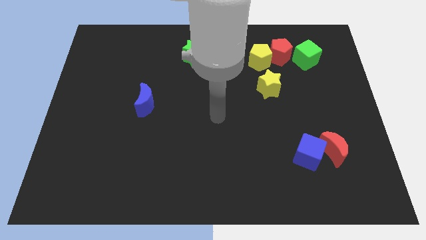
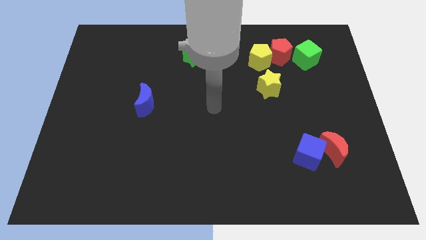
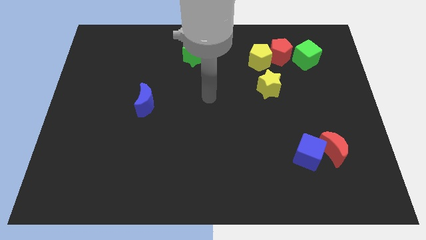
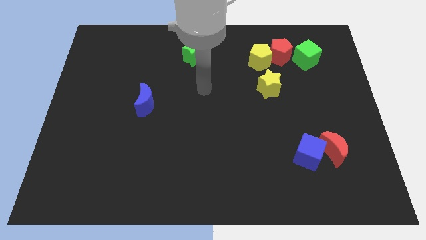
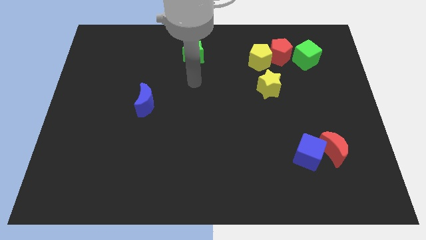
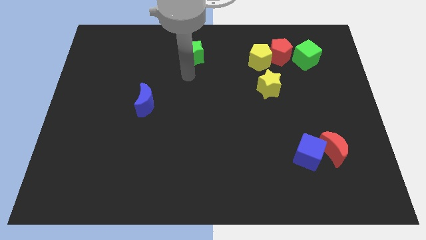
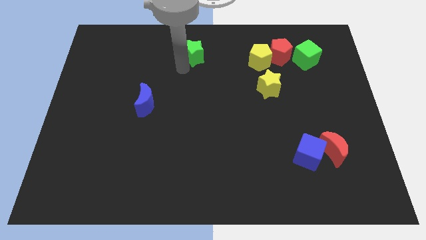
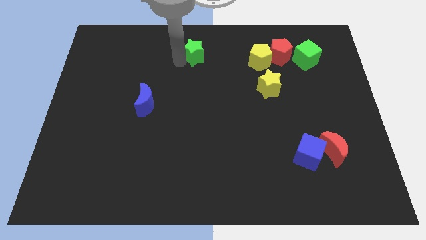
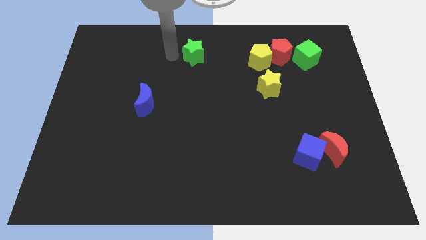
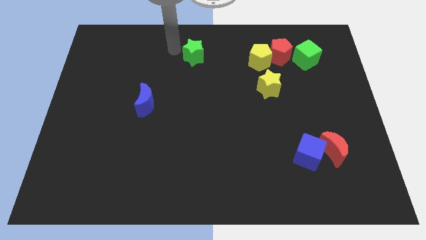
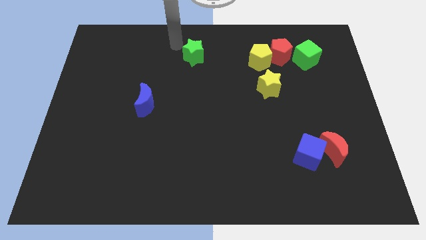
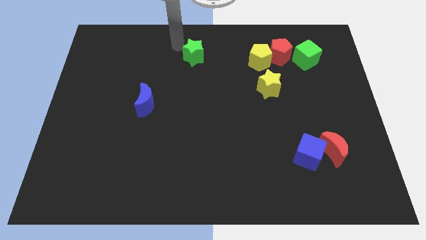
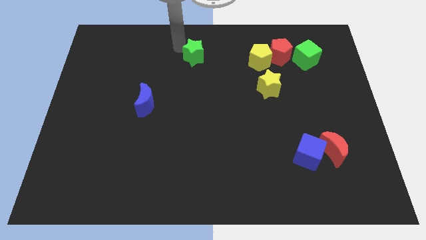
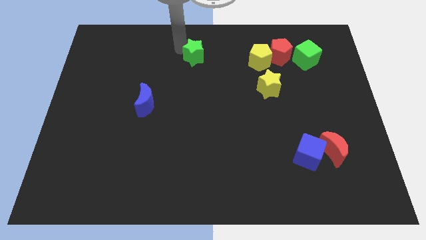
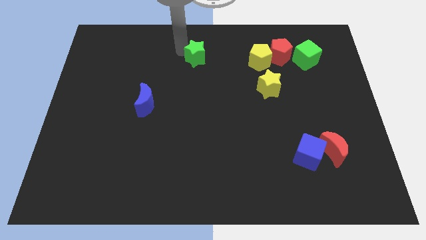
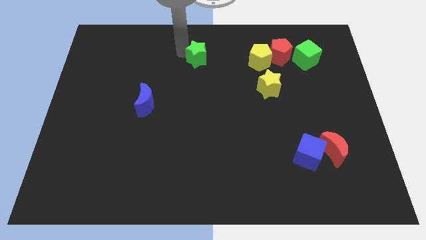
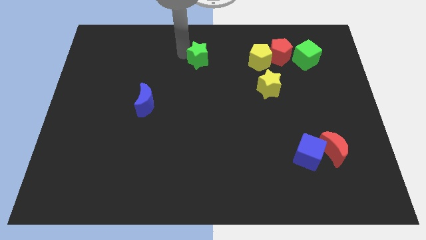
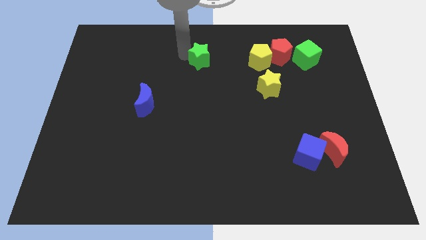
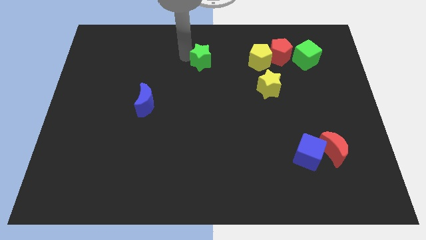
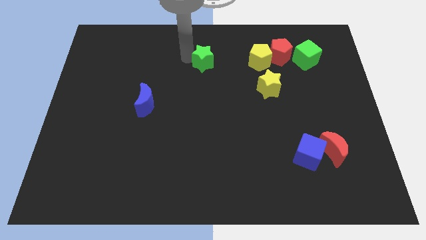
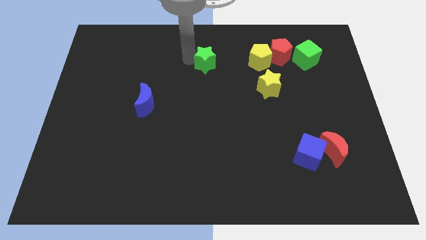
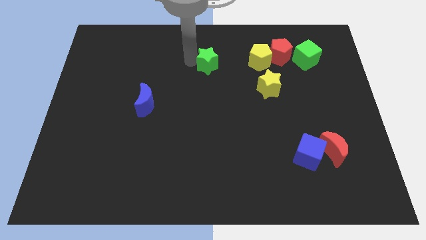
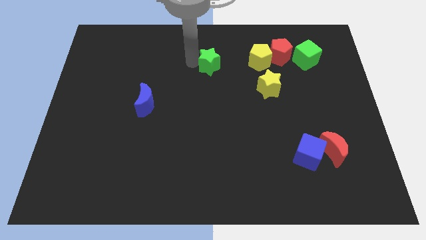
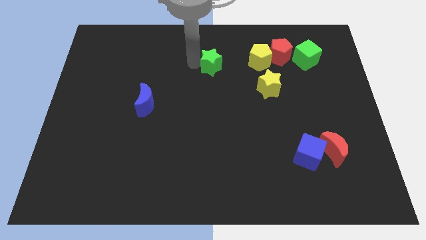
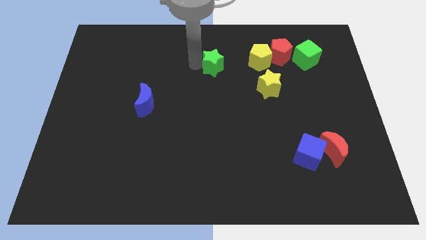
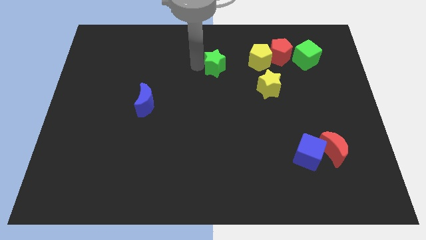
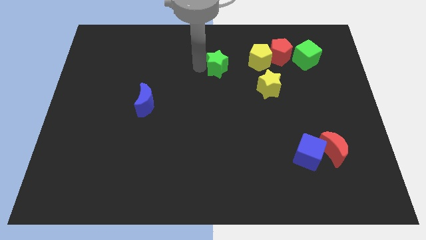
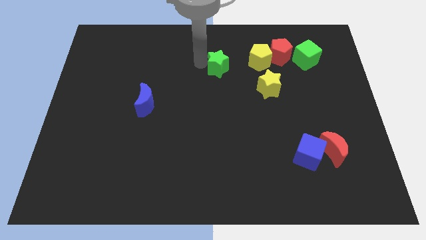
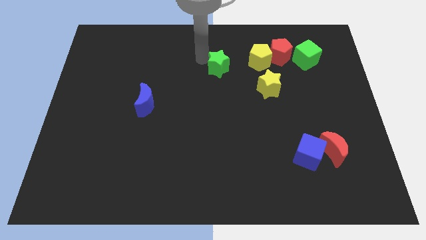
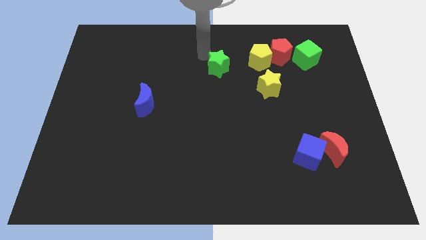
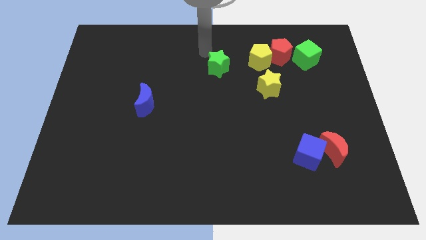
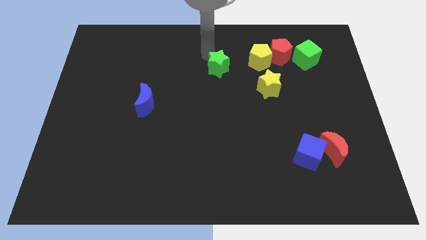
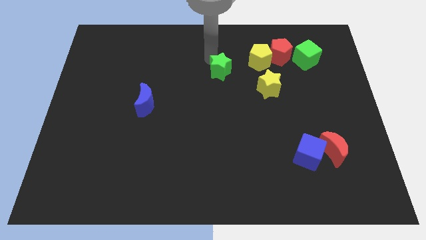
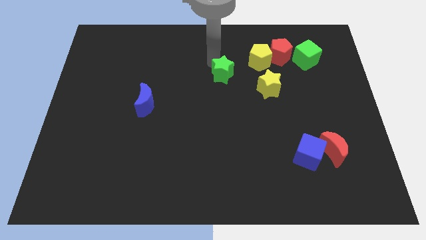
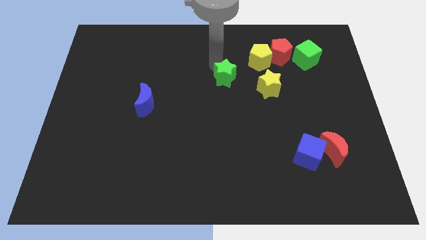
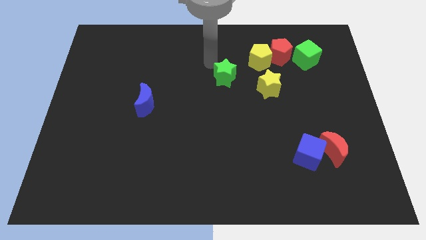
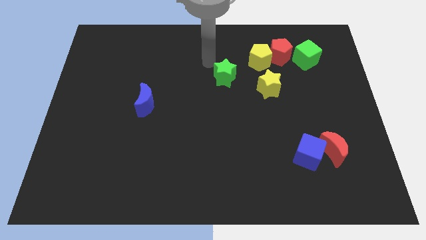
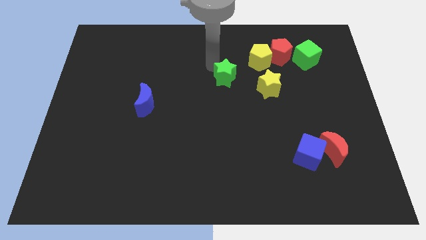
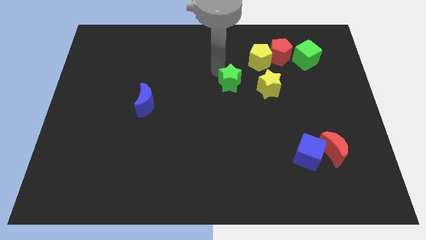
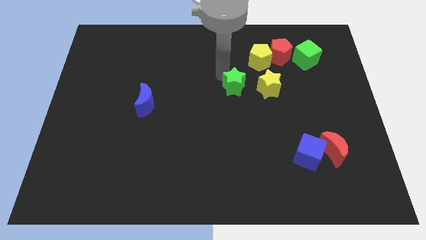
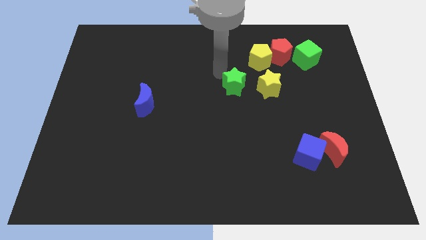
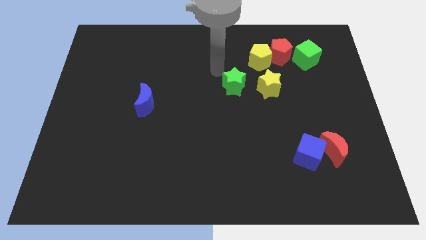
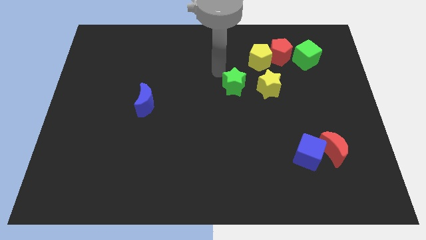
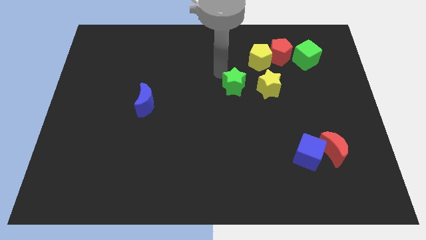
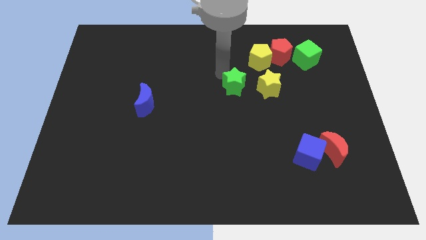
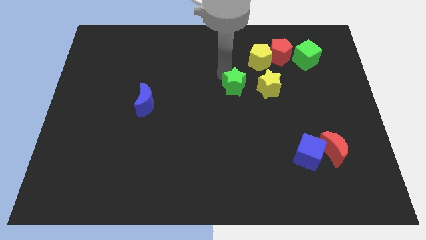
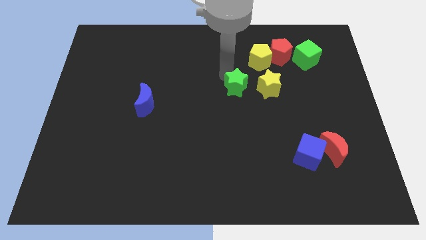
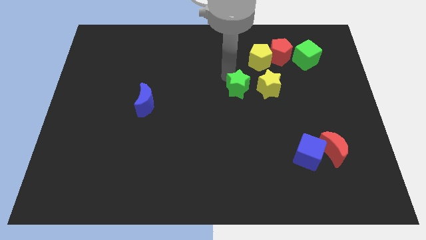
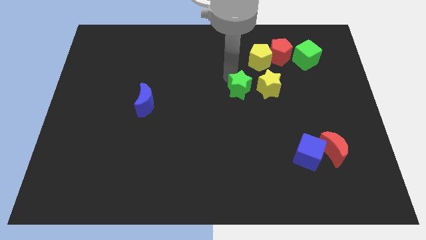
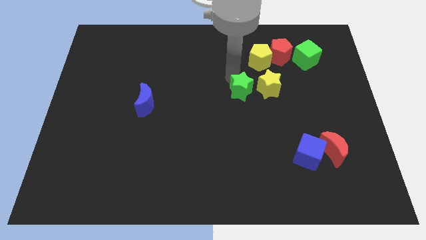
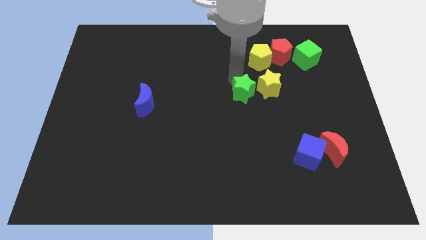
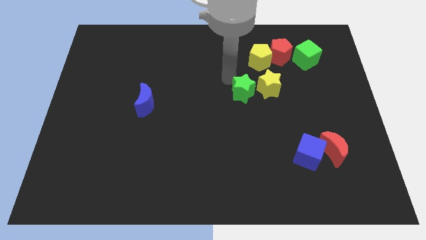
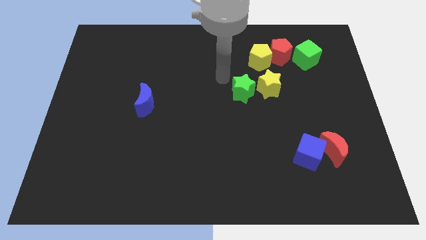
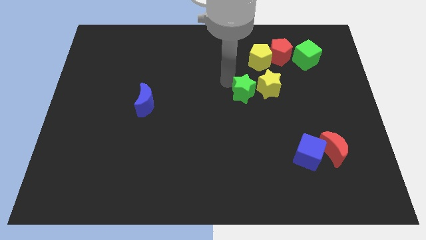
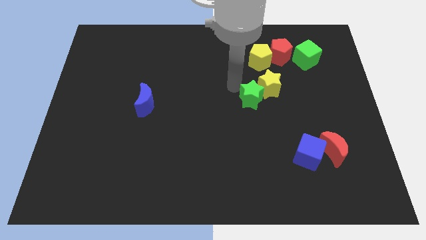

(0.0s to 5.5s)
push the green star down and right

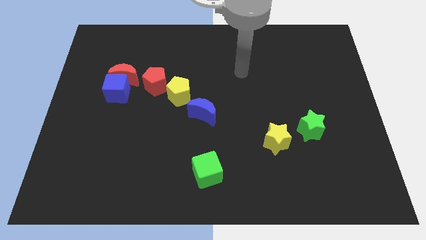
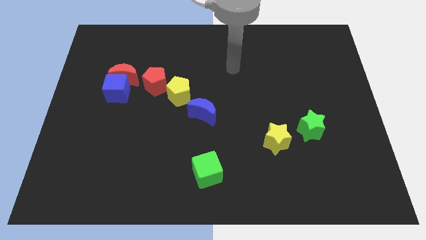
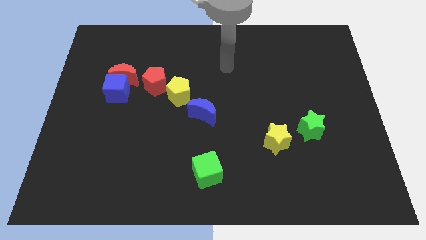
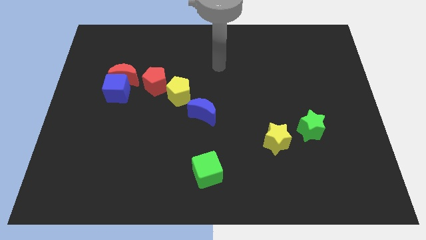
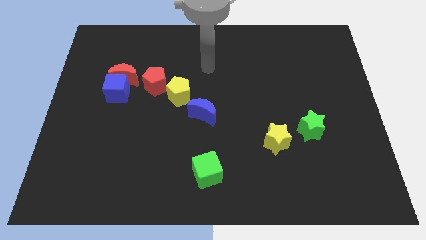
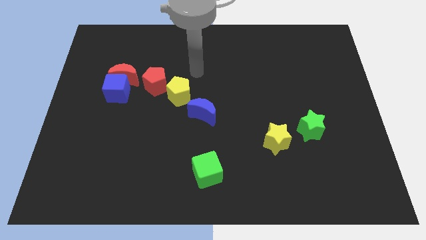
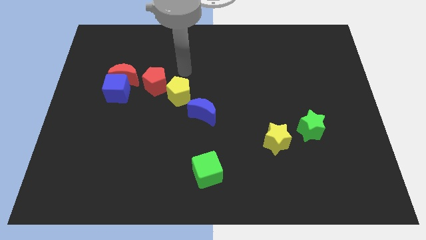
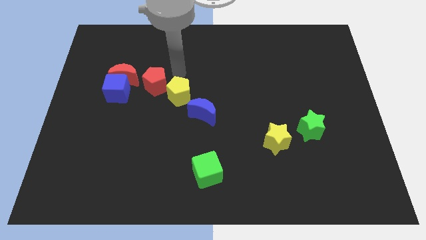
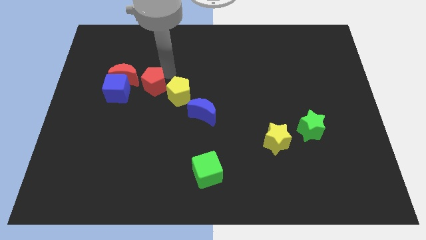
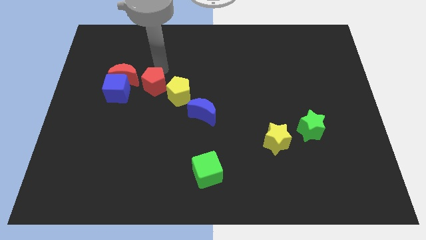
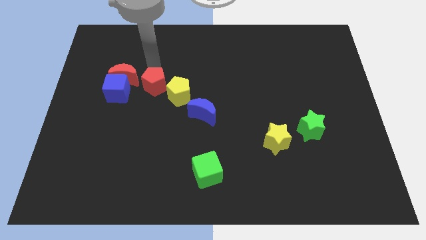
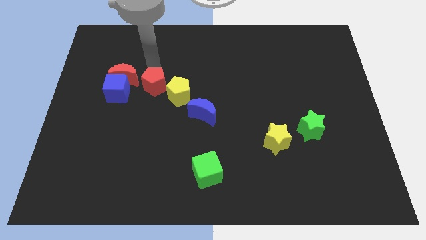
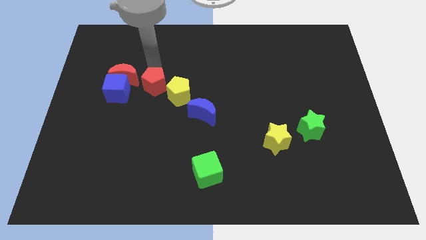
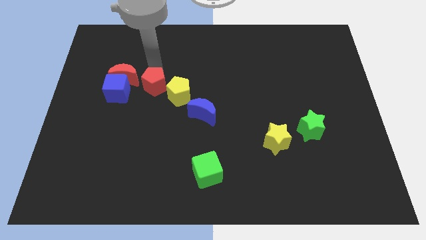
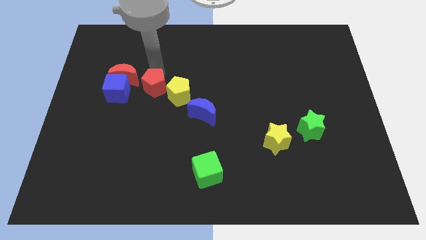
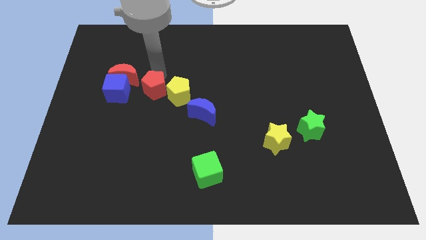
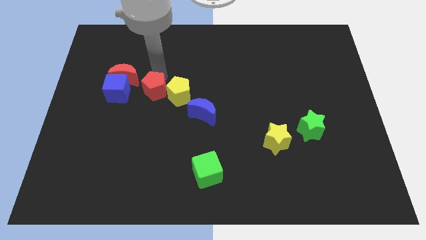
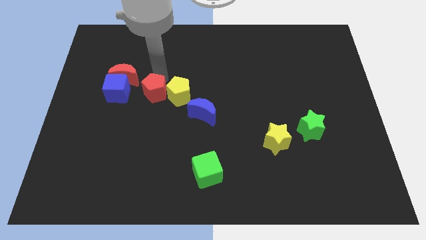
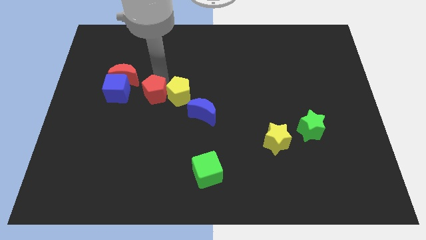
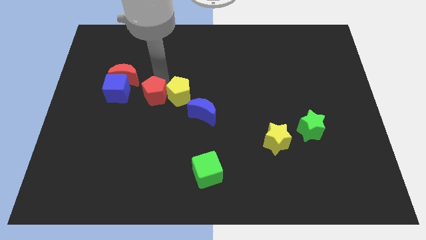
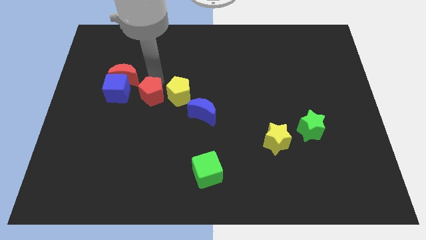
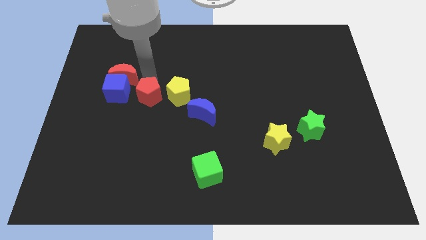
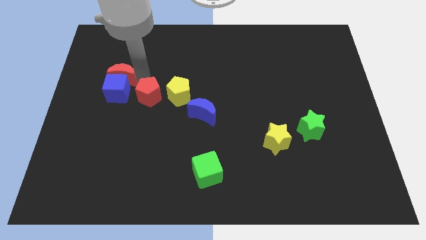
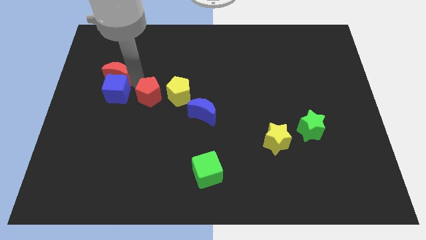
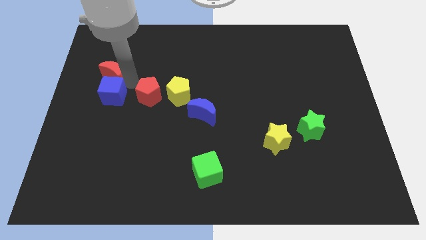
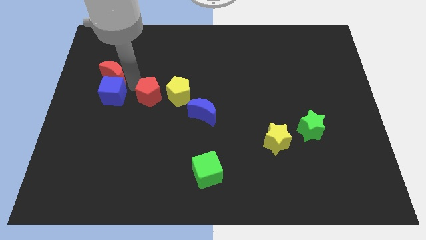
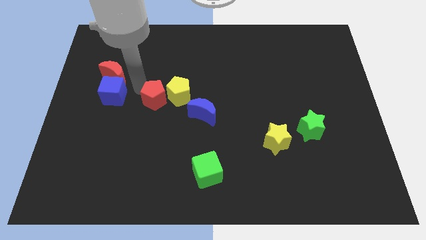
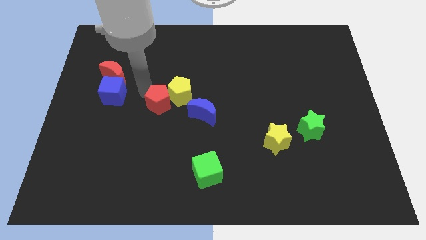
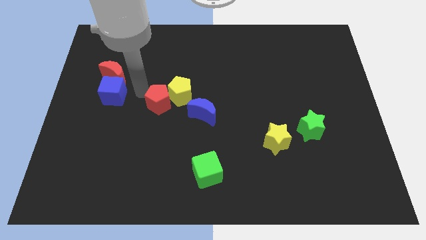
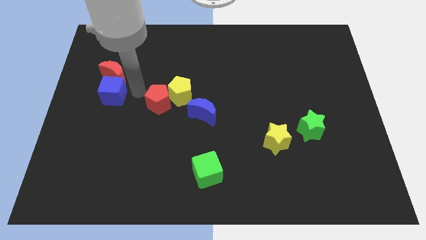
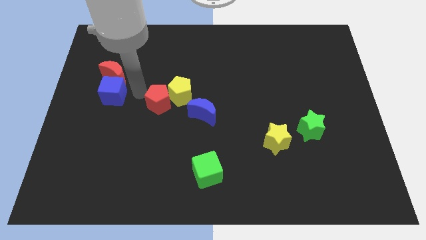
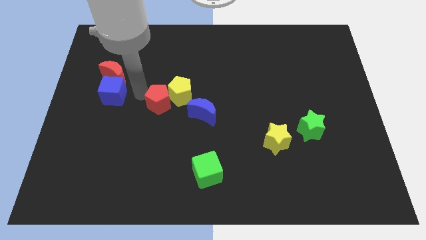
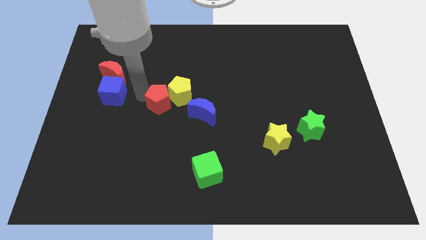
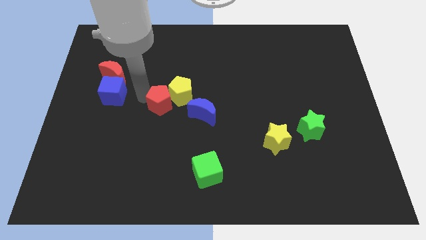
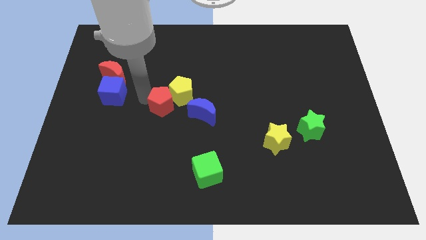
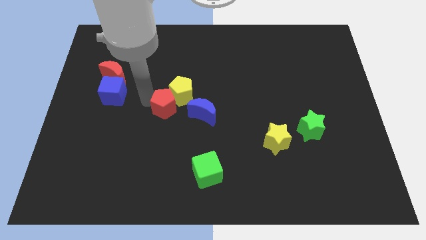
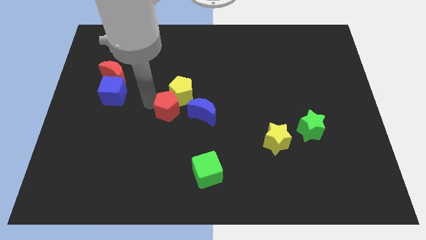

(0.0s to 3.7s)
slightly move the red pentagon down and to the right diagonally
